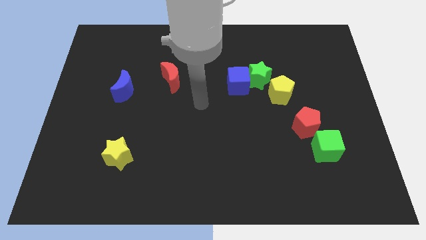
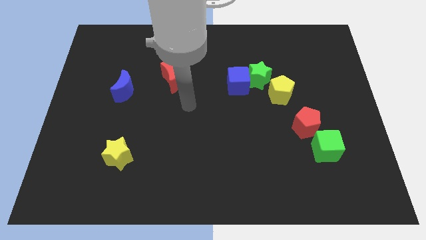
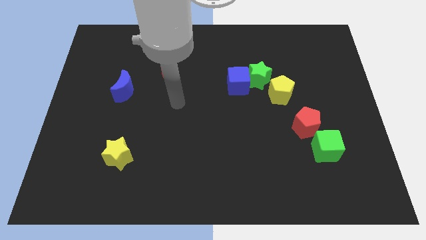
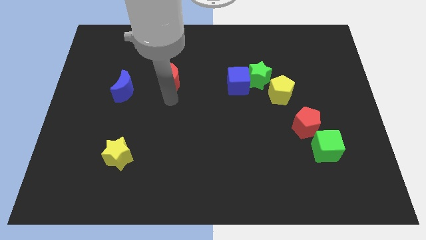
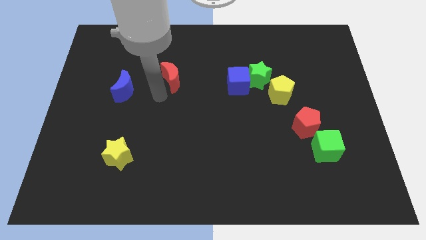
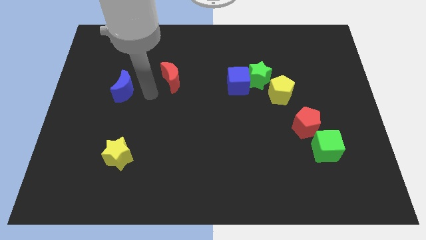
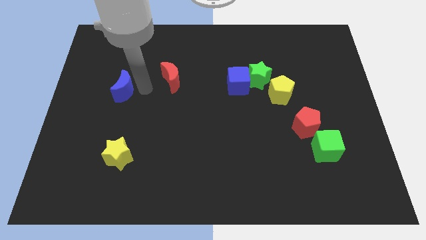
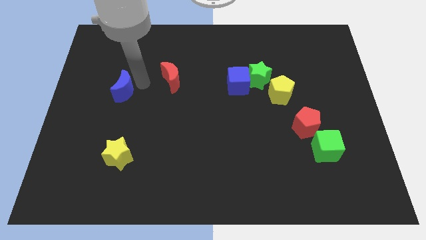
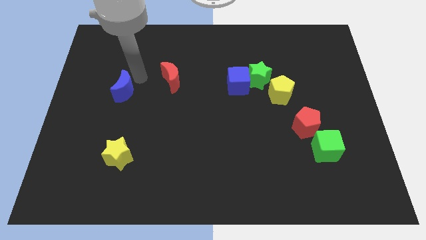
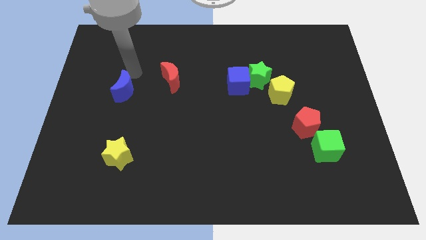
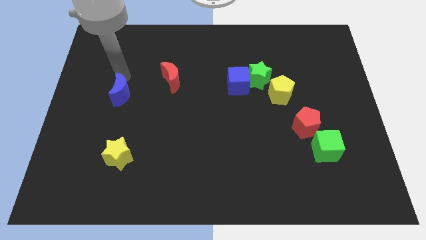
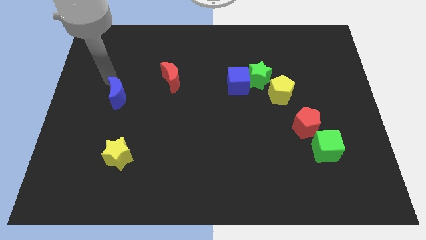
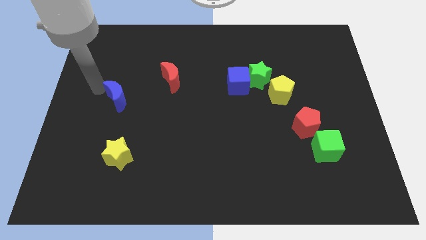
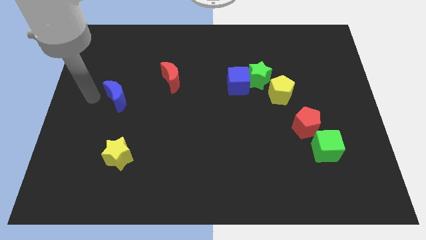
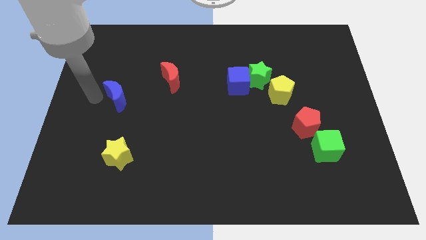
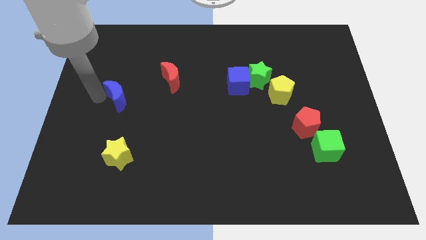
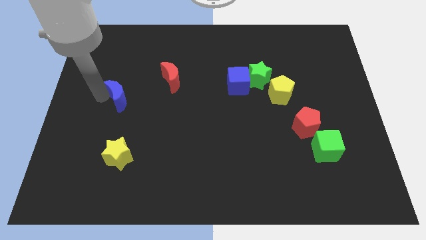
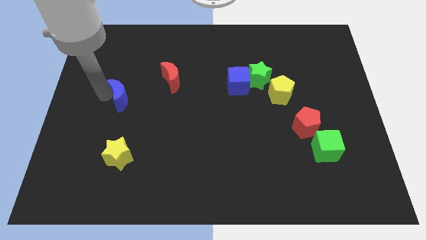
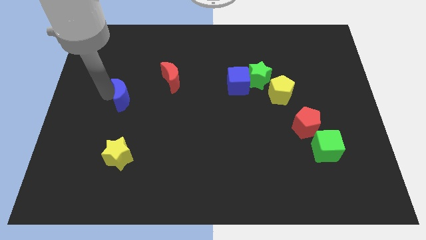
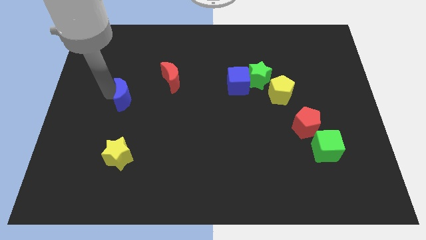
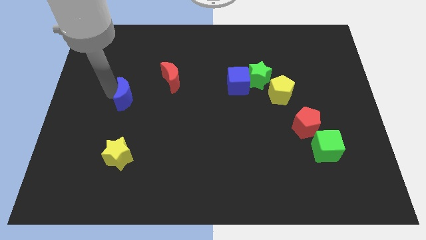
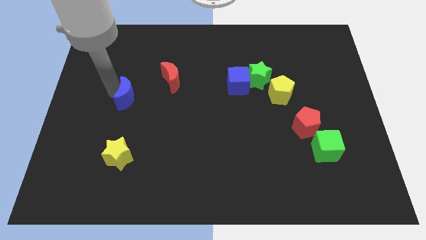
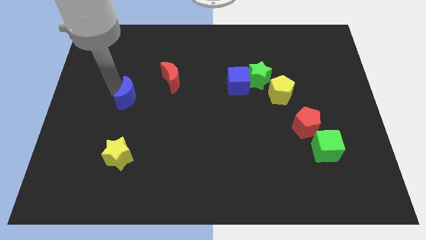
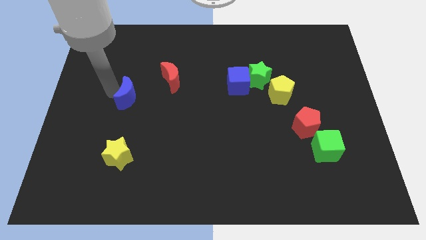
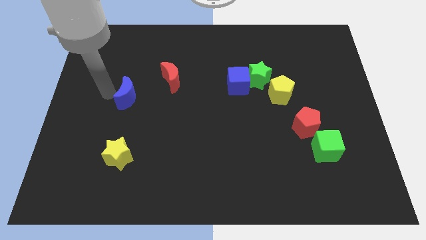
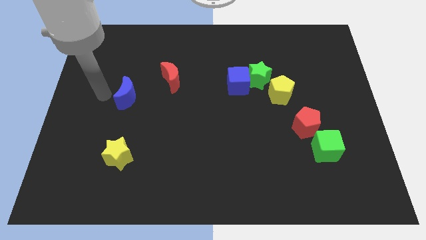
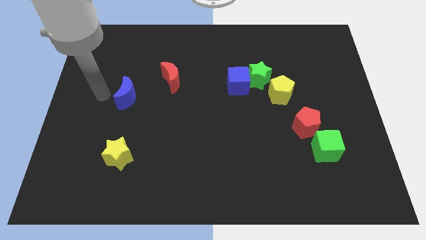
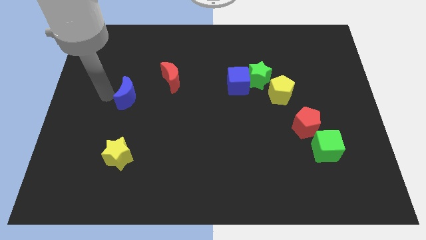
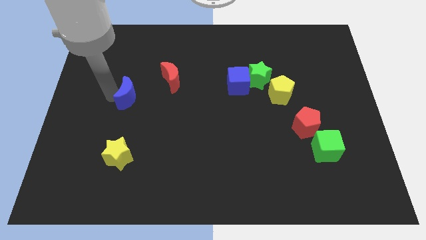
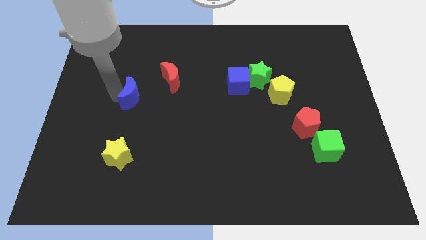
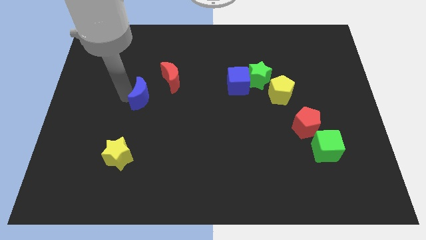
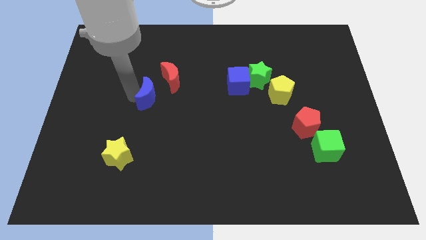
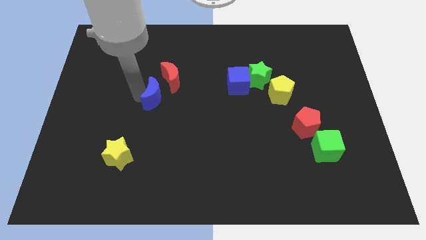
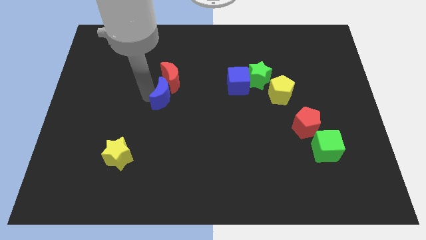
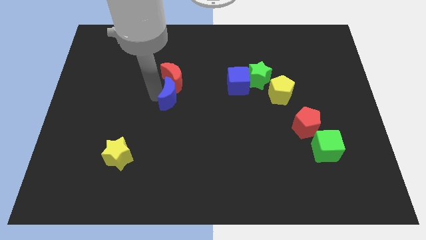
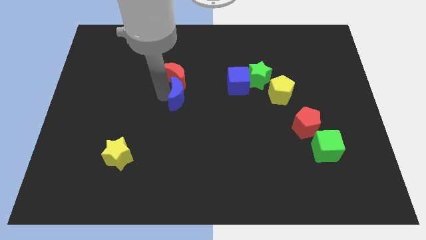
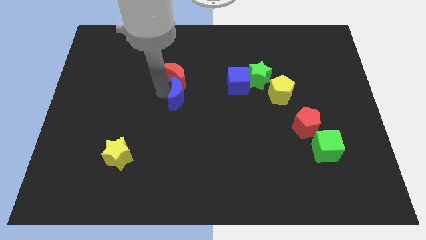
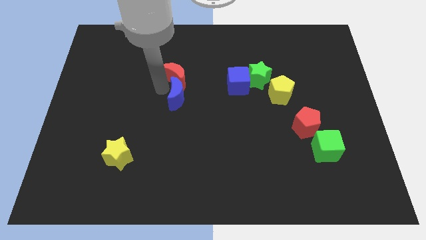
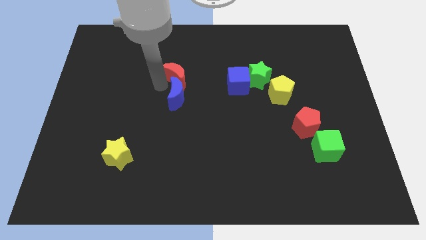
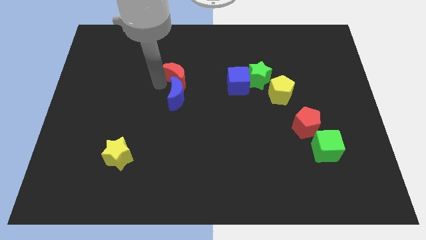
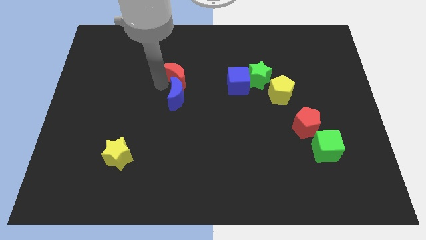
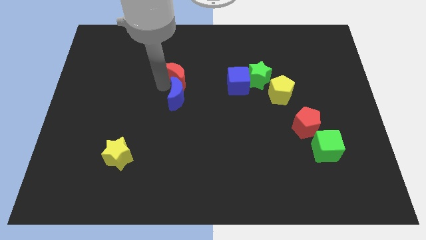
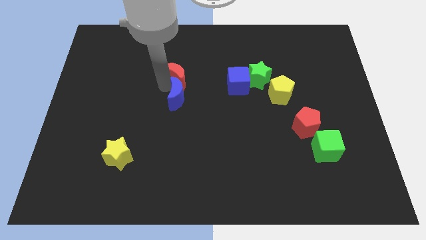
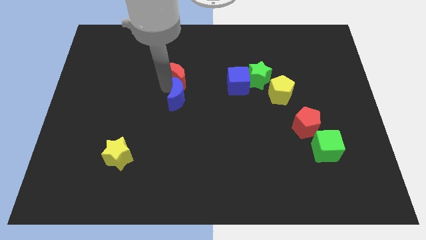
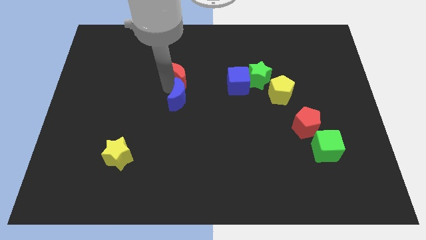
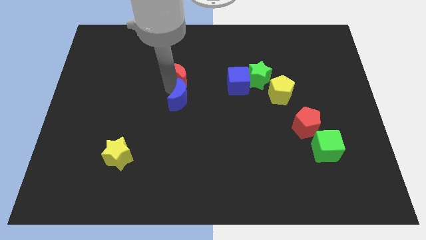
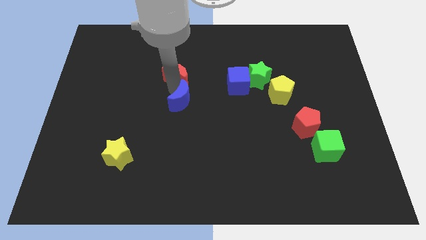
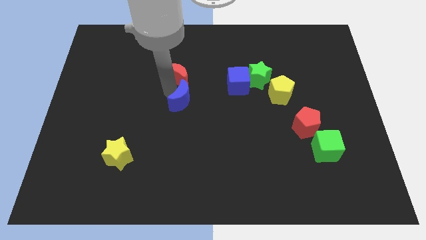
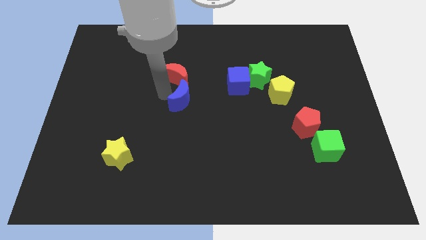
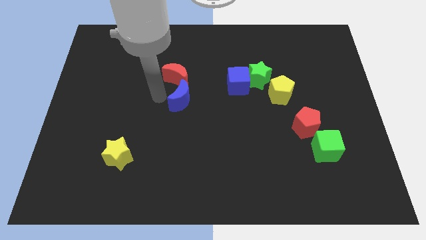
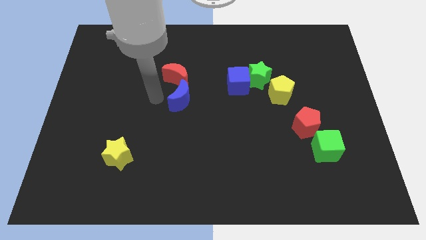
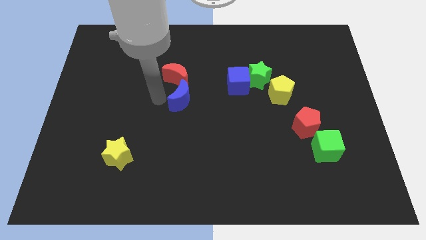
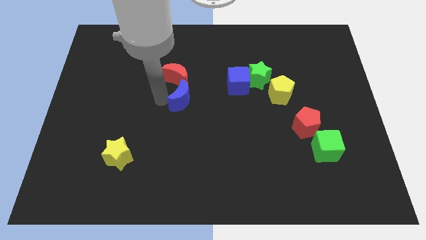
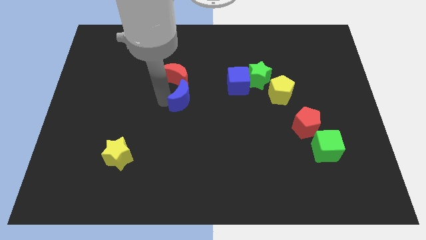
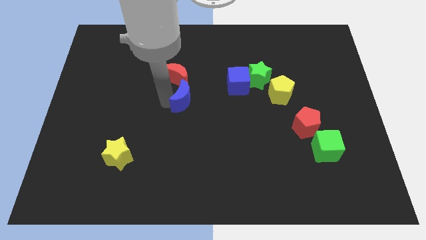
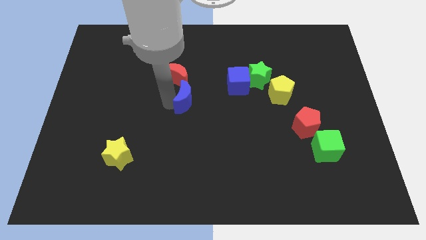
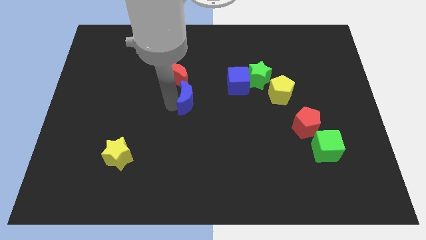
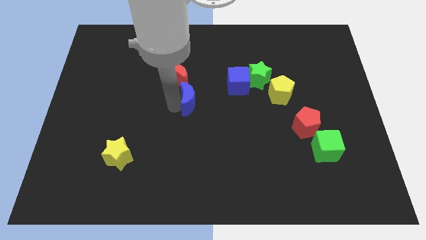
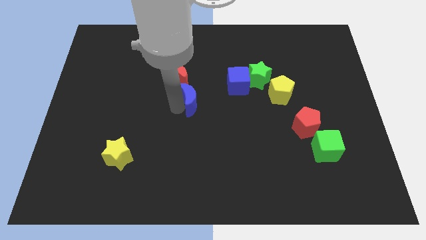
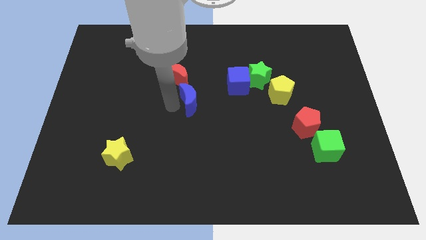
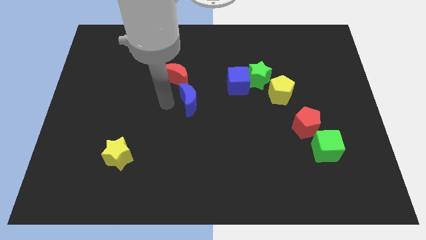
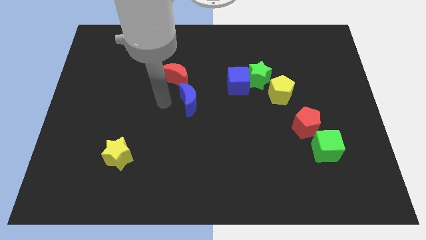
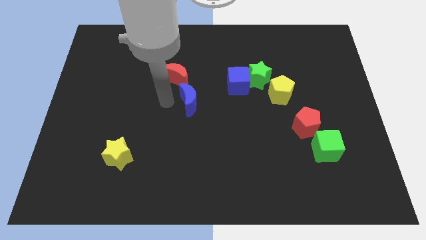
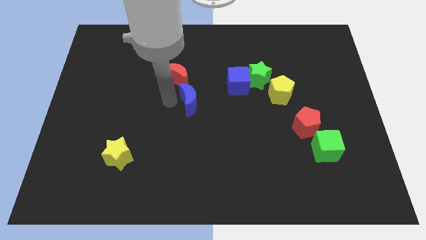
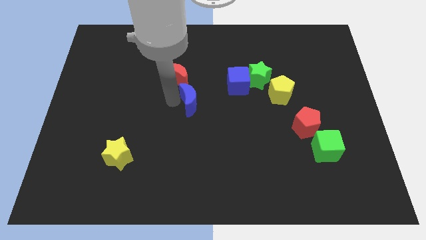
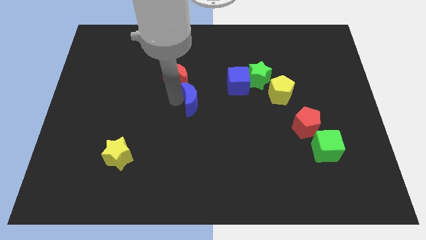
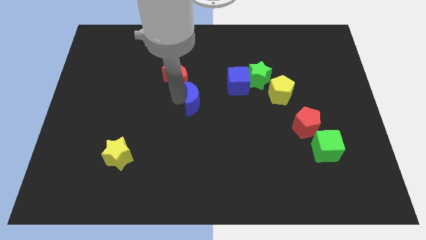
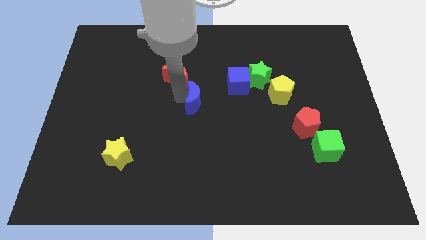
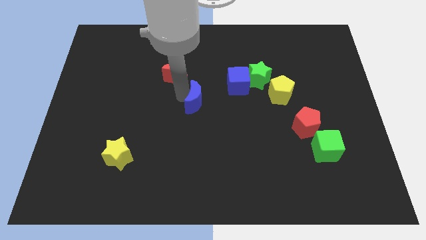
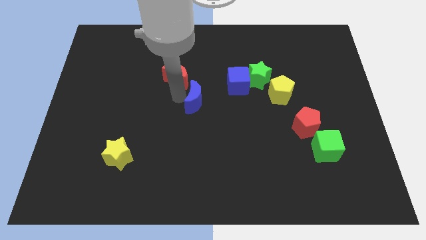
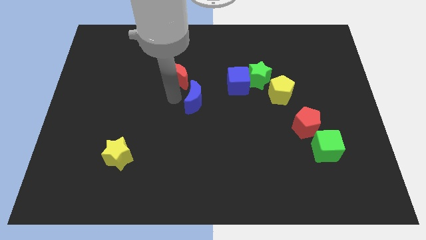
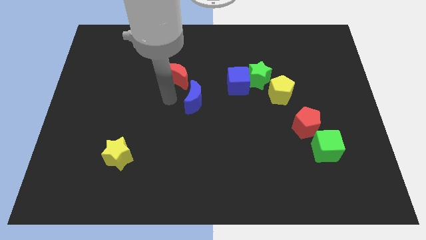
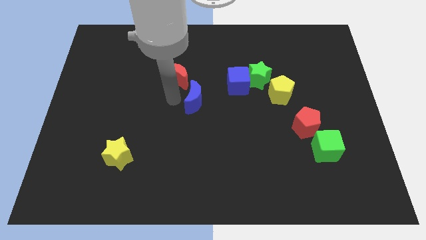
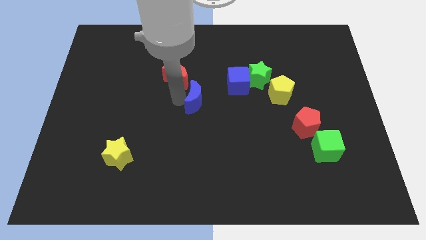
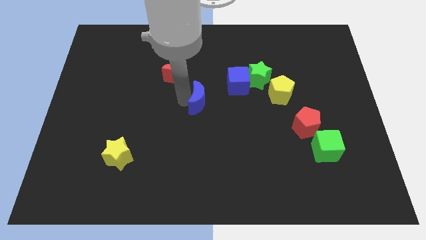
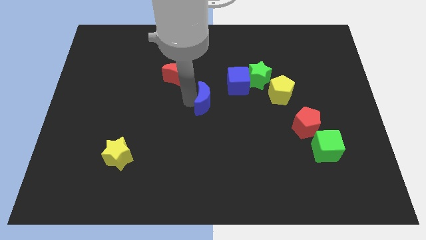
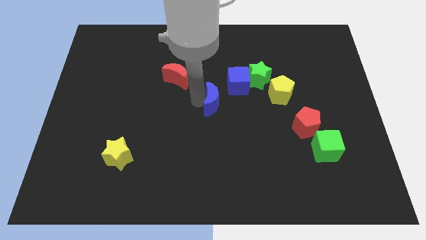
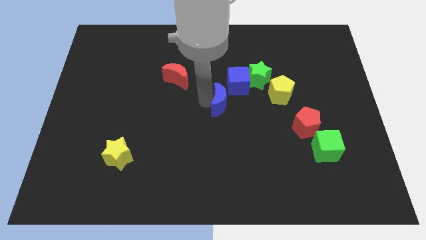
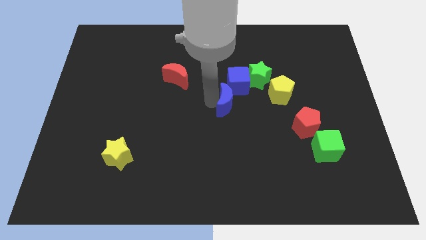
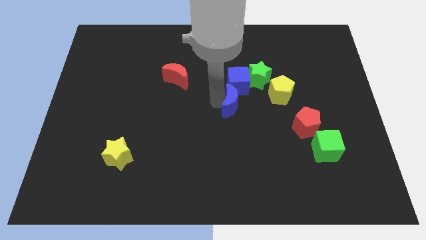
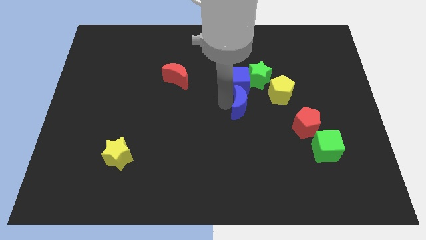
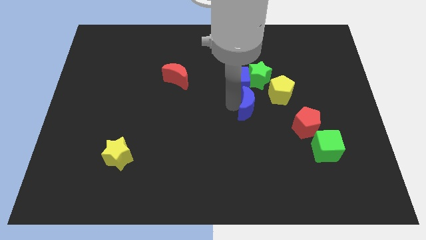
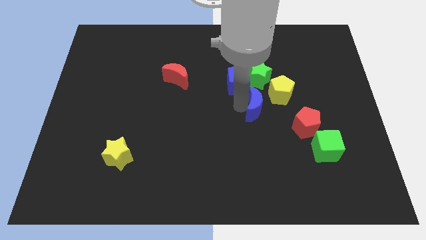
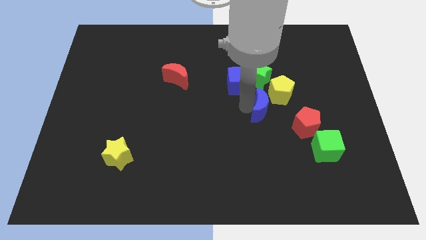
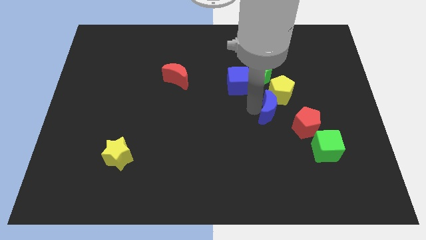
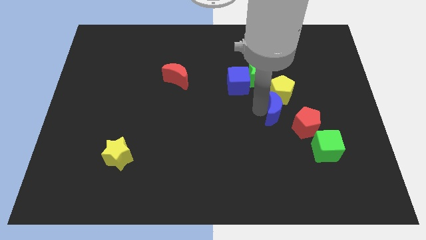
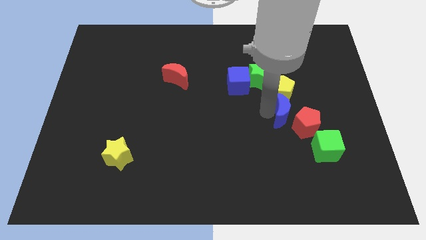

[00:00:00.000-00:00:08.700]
put the blue moon to the bottom right side of the yellow pentagon
